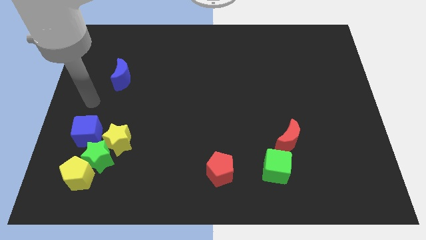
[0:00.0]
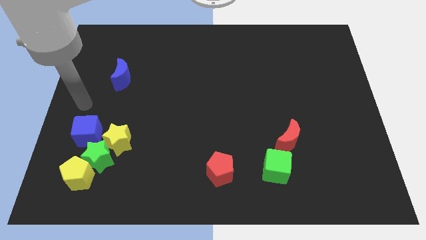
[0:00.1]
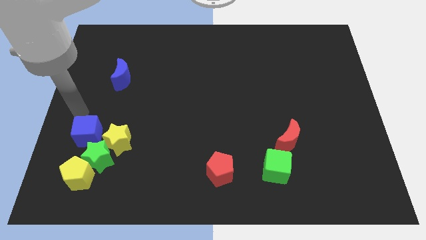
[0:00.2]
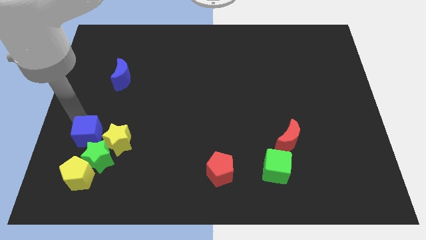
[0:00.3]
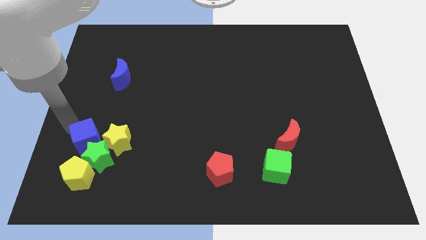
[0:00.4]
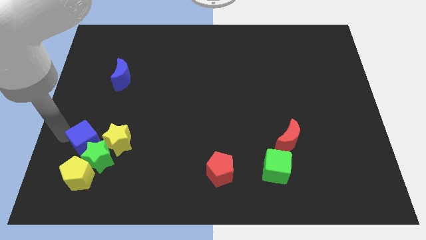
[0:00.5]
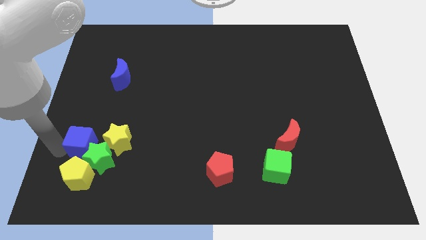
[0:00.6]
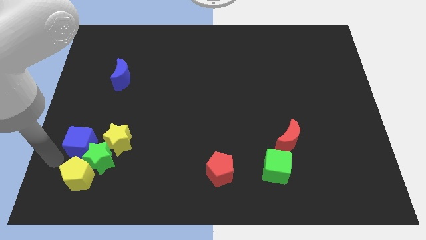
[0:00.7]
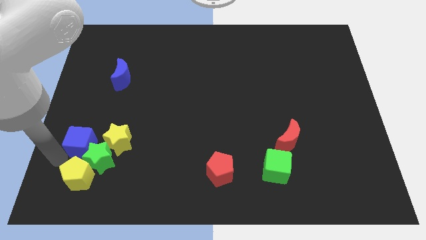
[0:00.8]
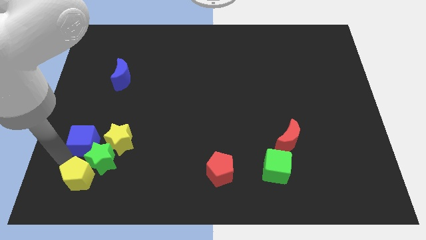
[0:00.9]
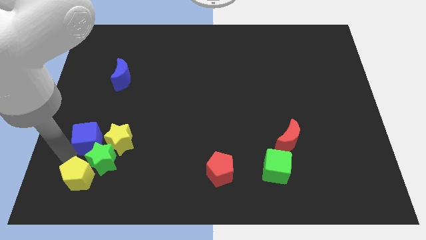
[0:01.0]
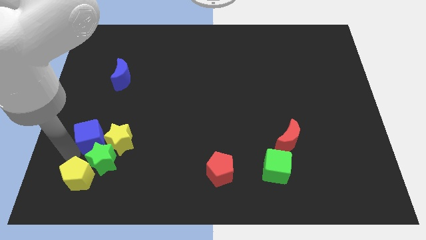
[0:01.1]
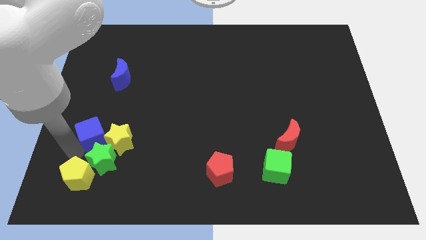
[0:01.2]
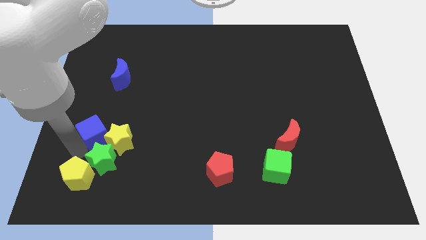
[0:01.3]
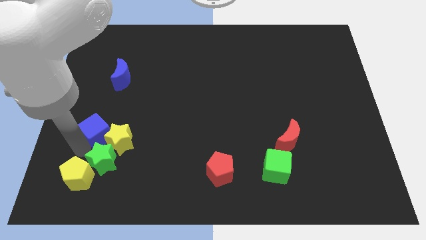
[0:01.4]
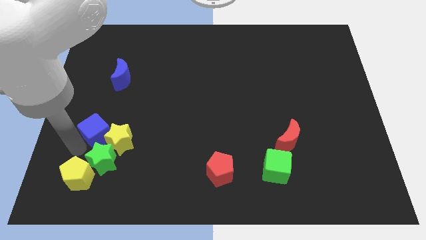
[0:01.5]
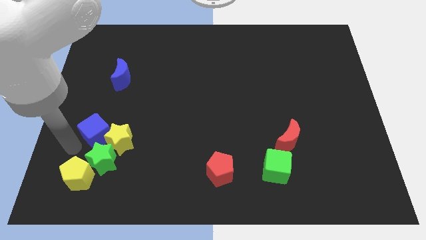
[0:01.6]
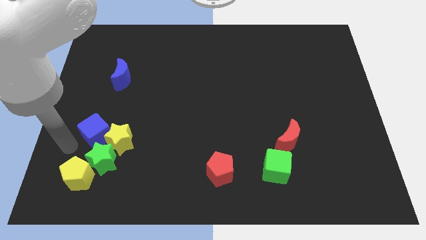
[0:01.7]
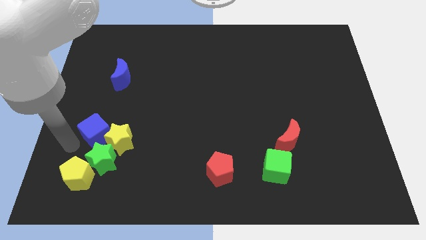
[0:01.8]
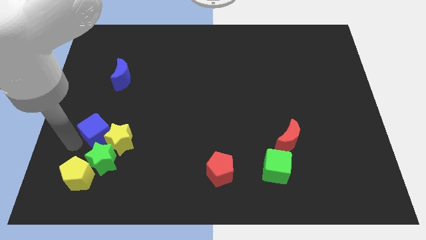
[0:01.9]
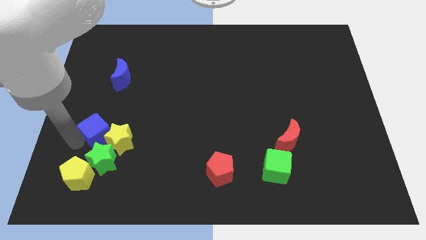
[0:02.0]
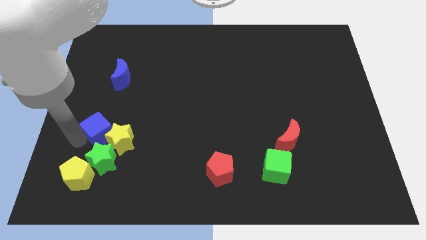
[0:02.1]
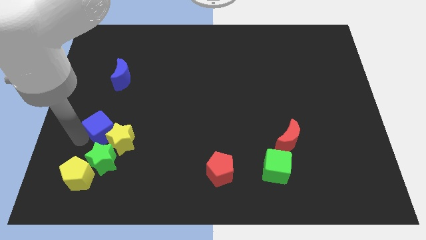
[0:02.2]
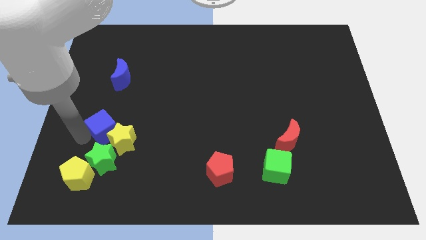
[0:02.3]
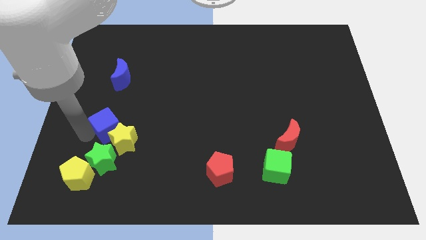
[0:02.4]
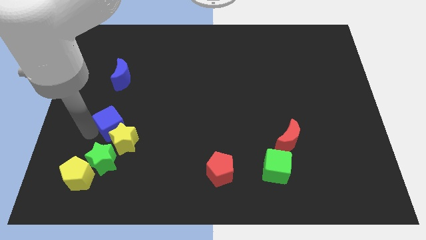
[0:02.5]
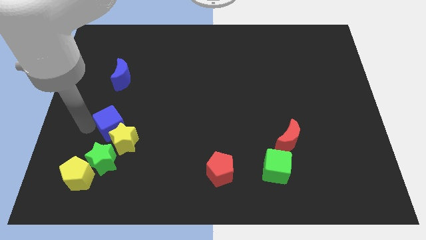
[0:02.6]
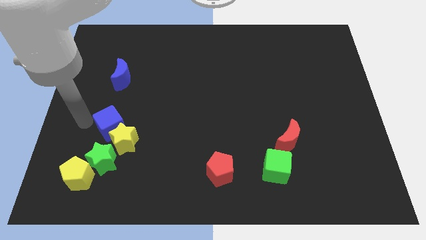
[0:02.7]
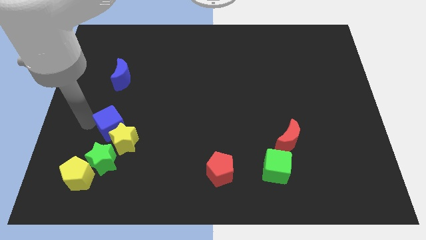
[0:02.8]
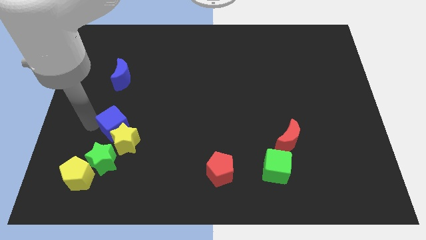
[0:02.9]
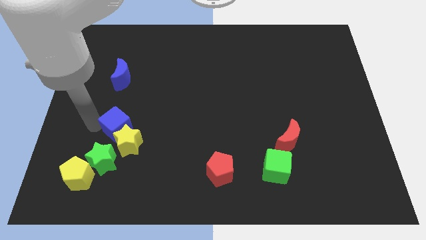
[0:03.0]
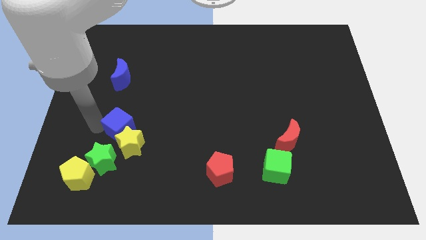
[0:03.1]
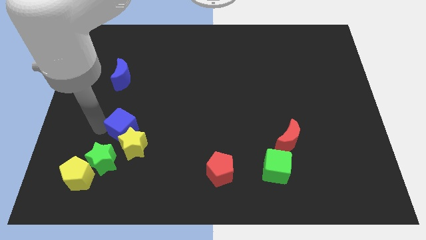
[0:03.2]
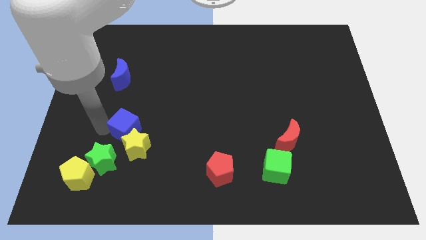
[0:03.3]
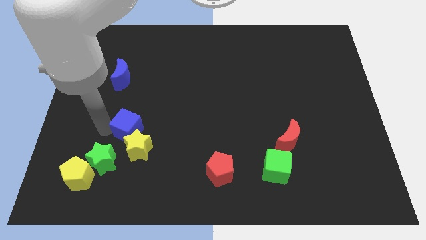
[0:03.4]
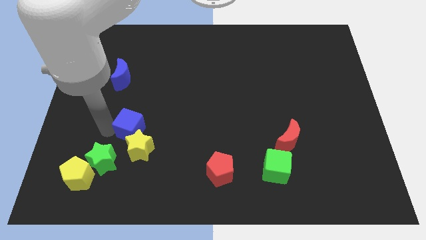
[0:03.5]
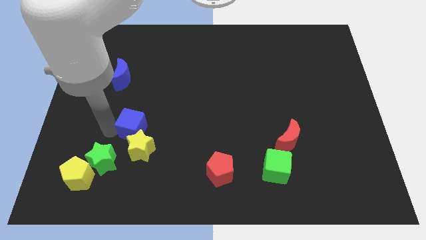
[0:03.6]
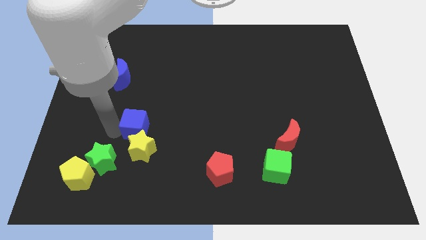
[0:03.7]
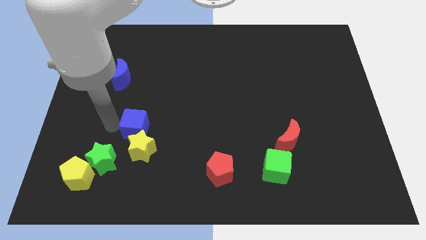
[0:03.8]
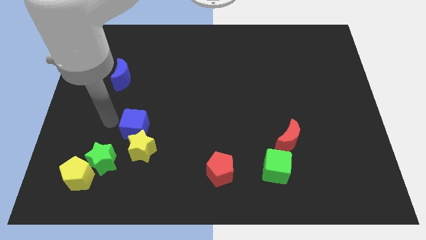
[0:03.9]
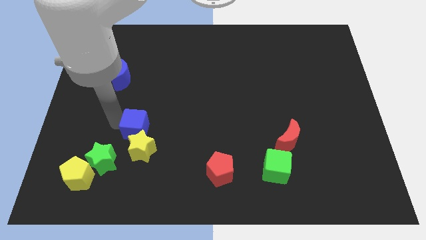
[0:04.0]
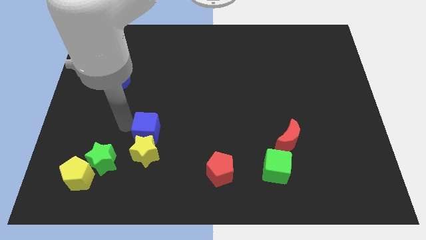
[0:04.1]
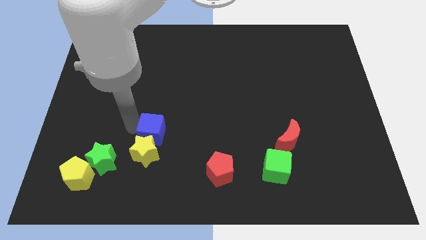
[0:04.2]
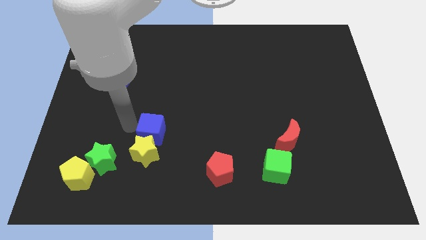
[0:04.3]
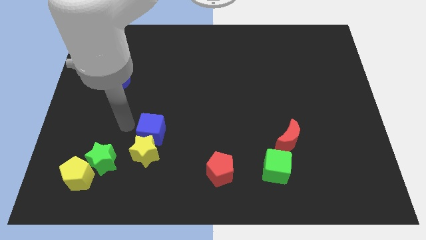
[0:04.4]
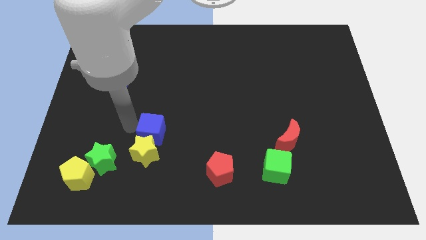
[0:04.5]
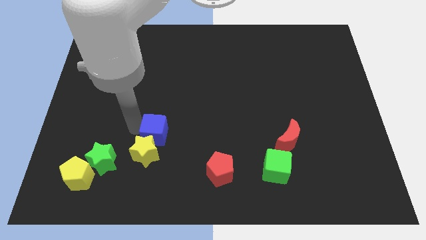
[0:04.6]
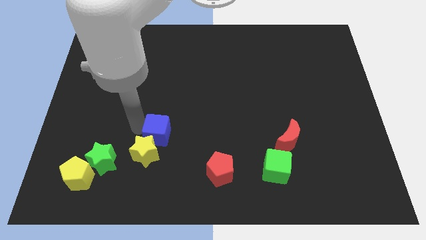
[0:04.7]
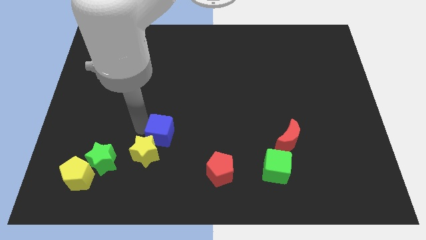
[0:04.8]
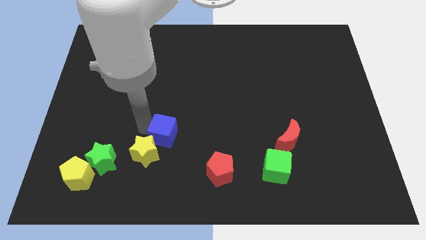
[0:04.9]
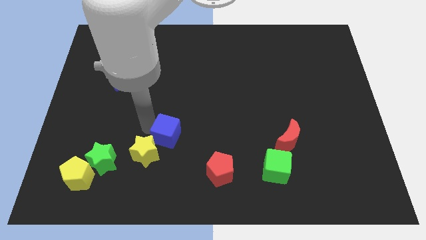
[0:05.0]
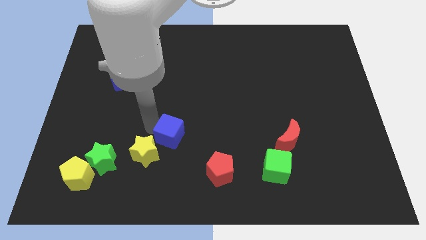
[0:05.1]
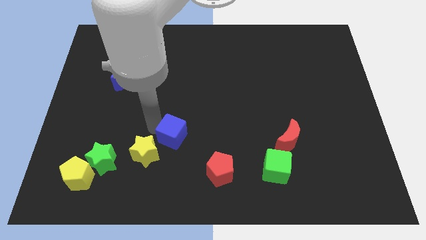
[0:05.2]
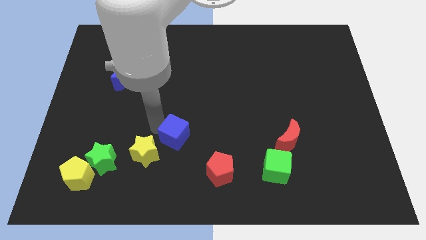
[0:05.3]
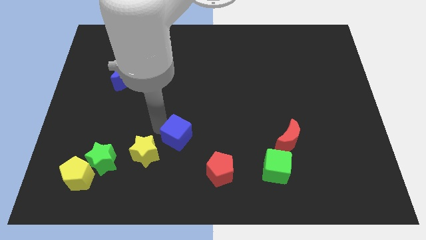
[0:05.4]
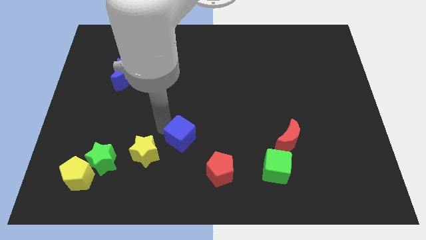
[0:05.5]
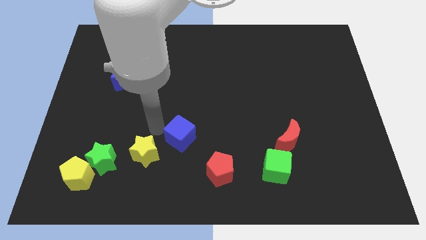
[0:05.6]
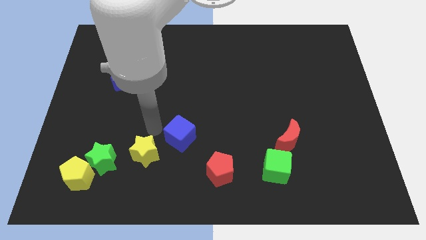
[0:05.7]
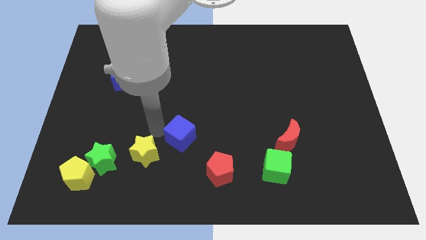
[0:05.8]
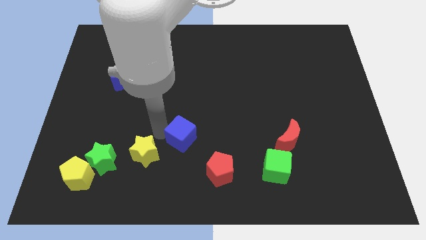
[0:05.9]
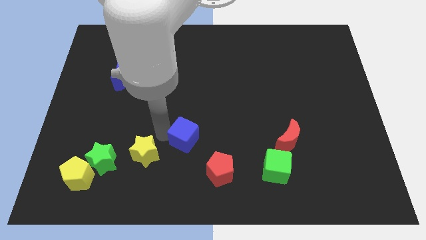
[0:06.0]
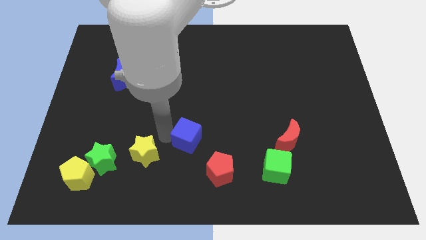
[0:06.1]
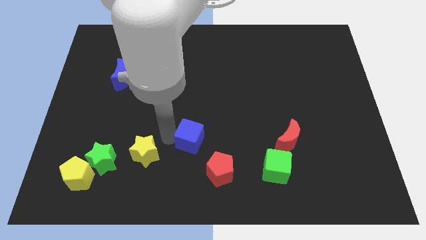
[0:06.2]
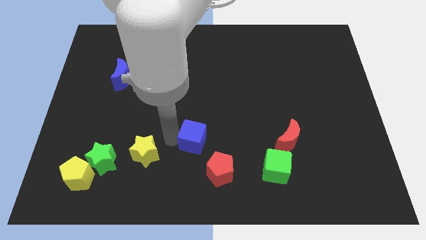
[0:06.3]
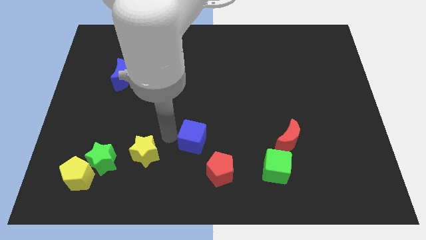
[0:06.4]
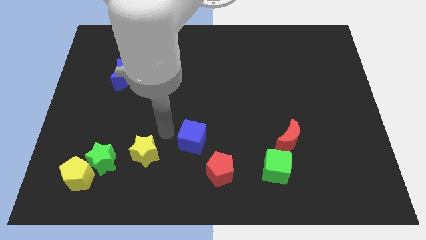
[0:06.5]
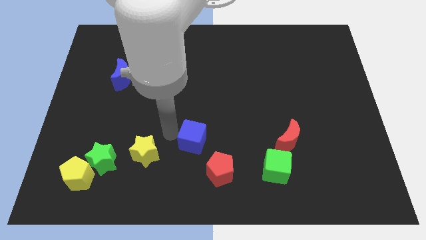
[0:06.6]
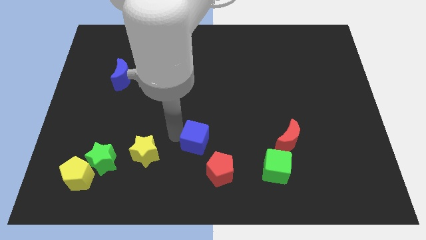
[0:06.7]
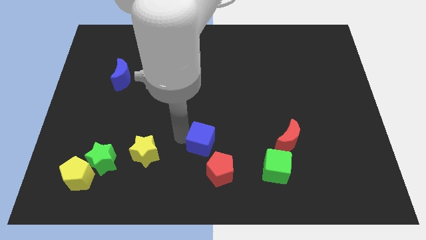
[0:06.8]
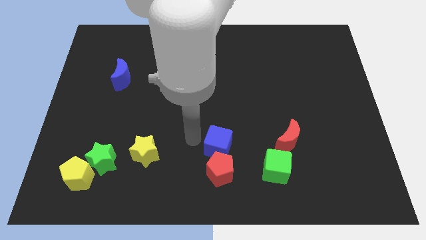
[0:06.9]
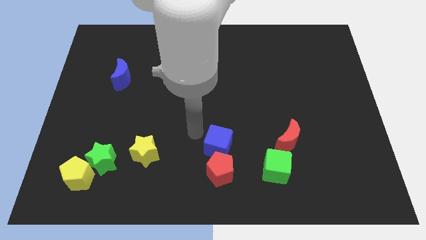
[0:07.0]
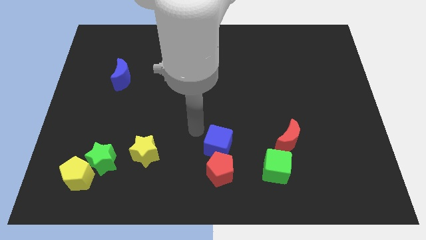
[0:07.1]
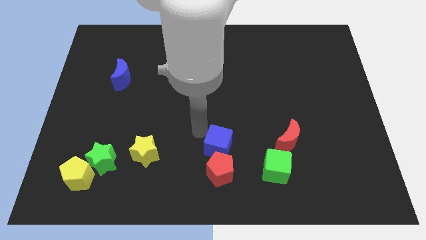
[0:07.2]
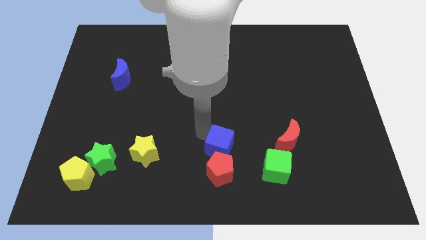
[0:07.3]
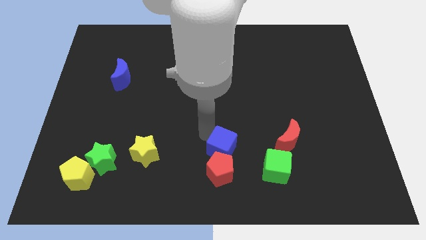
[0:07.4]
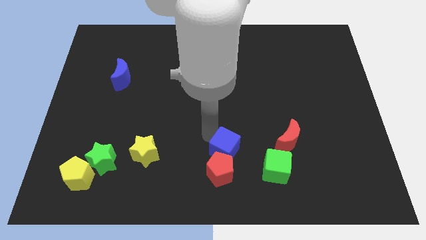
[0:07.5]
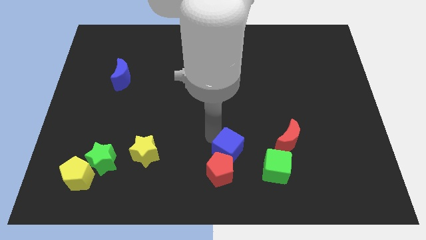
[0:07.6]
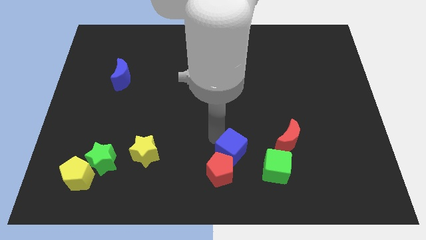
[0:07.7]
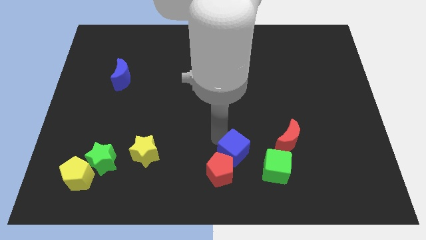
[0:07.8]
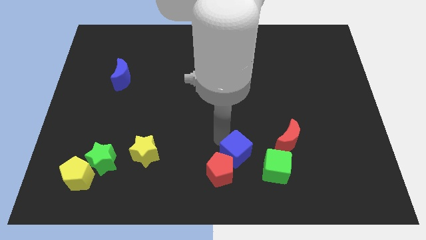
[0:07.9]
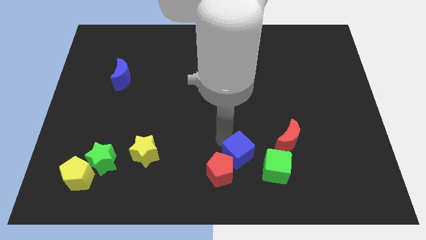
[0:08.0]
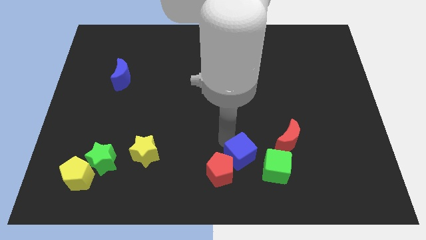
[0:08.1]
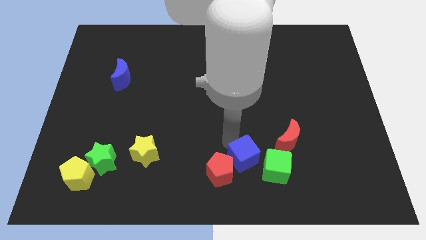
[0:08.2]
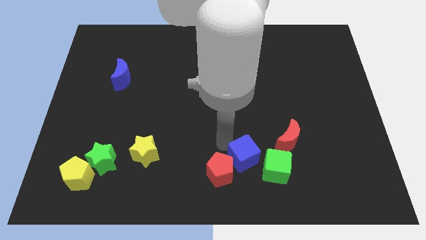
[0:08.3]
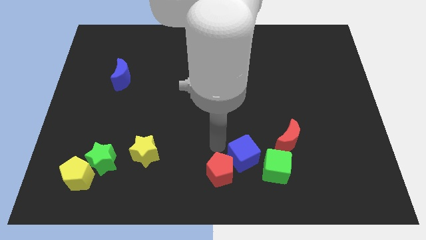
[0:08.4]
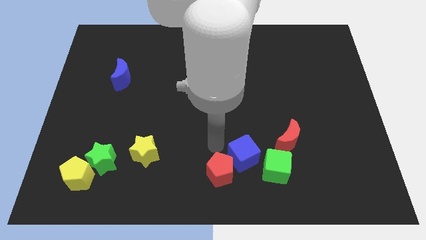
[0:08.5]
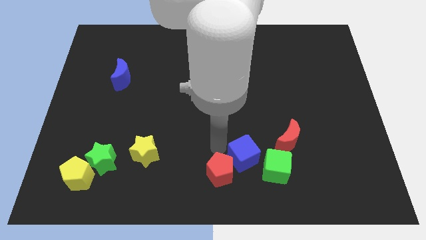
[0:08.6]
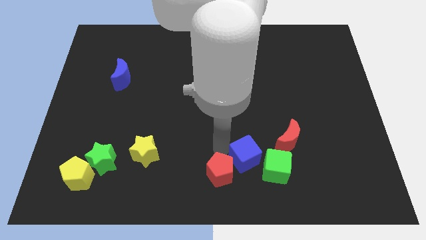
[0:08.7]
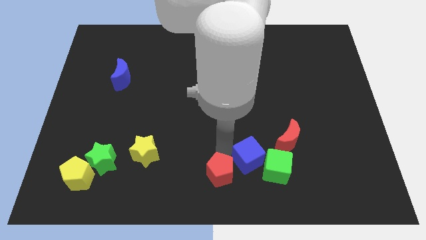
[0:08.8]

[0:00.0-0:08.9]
move the blue cube to the green cube
